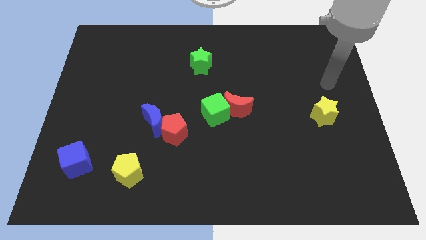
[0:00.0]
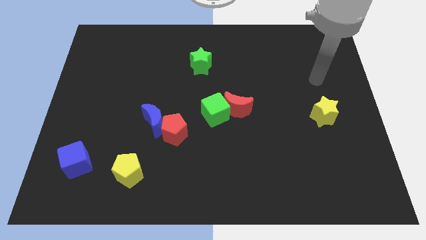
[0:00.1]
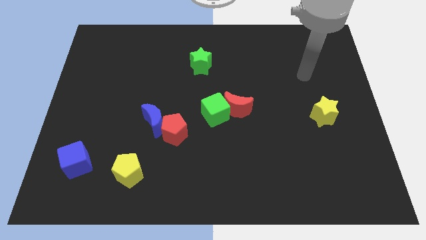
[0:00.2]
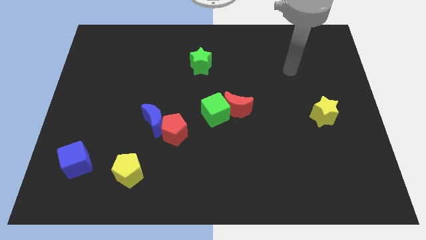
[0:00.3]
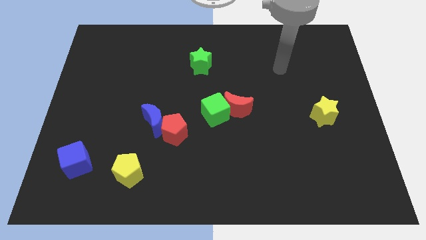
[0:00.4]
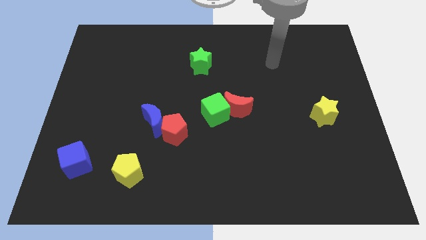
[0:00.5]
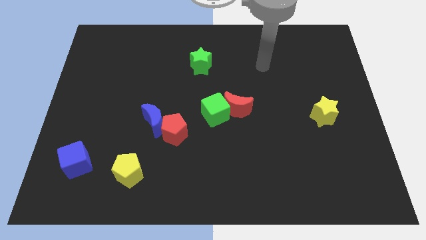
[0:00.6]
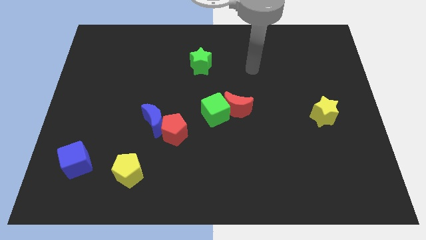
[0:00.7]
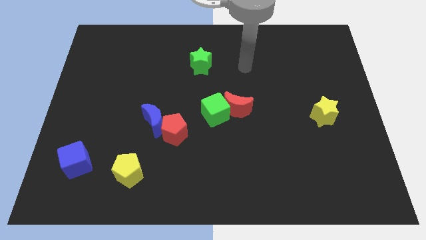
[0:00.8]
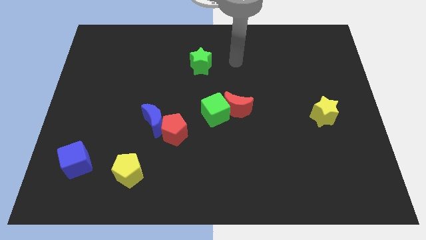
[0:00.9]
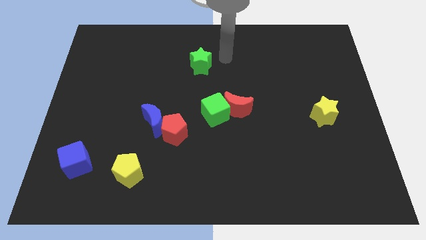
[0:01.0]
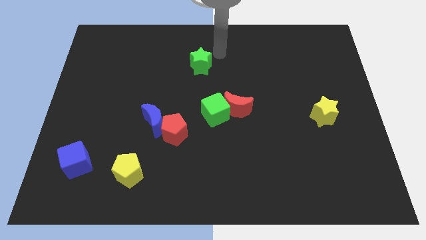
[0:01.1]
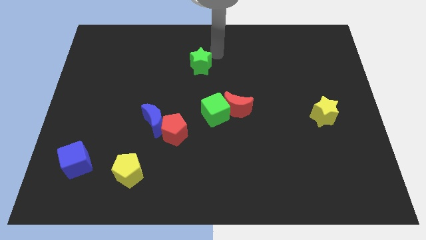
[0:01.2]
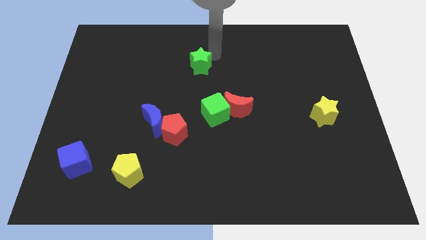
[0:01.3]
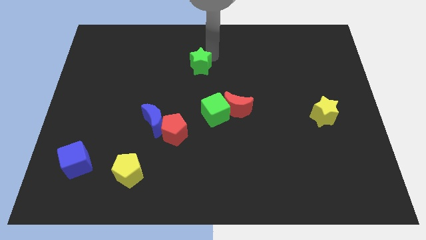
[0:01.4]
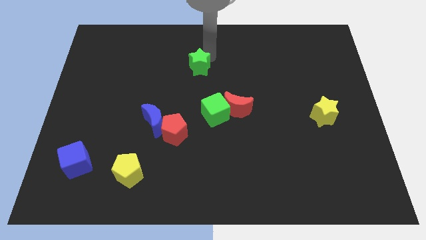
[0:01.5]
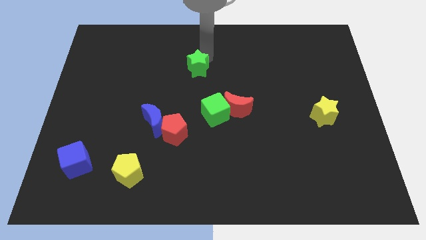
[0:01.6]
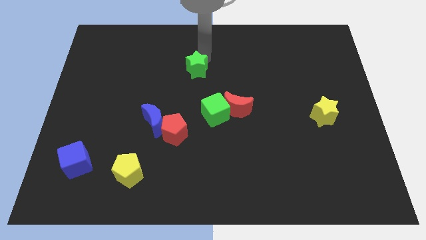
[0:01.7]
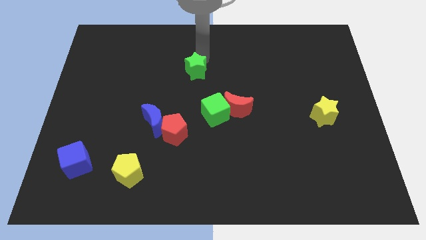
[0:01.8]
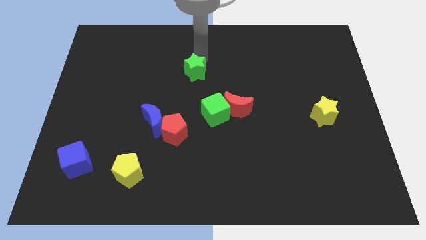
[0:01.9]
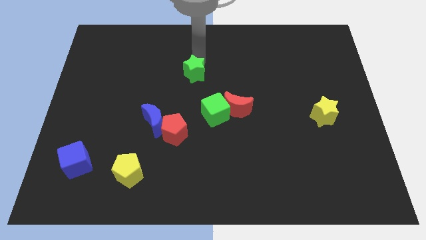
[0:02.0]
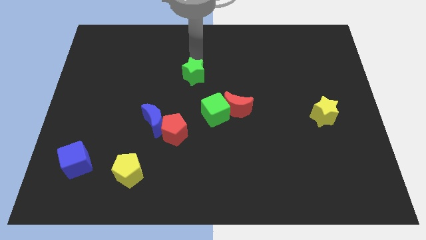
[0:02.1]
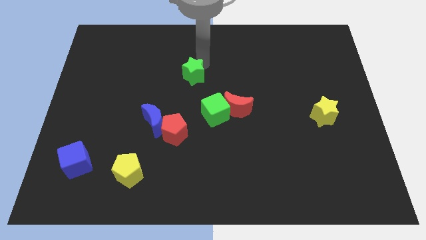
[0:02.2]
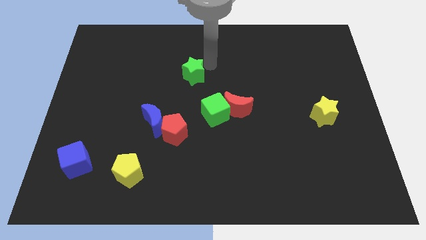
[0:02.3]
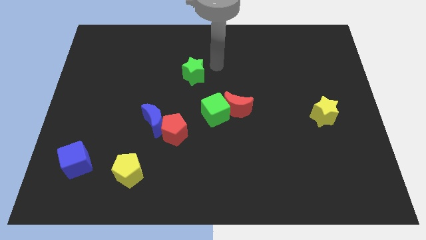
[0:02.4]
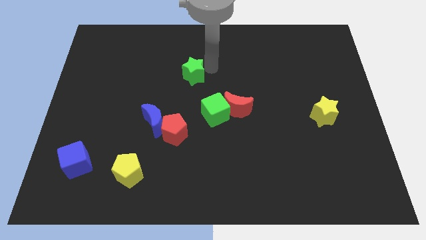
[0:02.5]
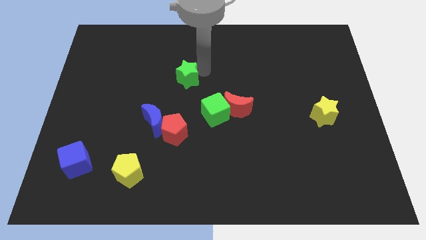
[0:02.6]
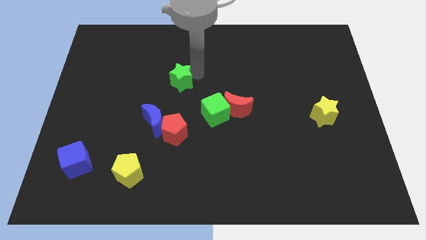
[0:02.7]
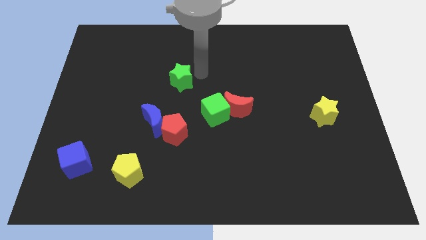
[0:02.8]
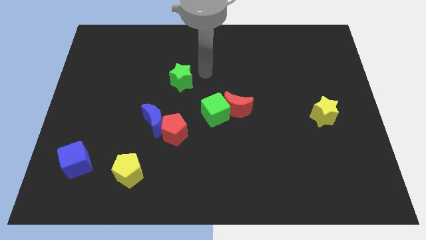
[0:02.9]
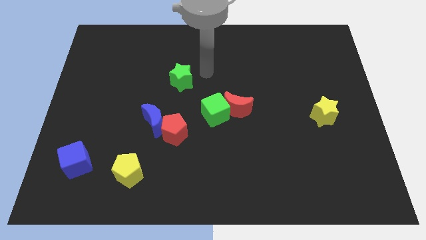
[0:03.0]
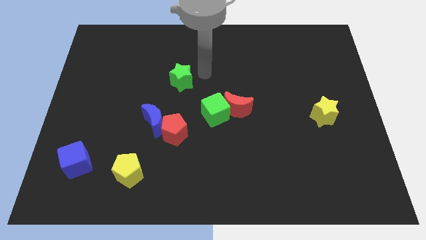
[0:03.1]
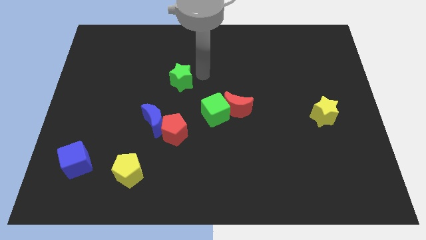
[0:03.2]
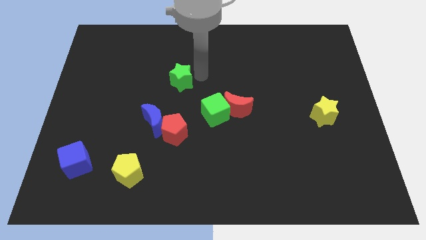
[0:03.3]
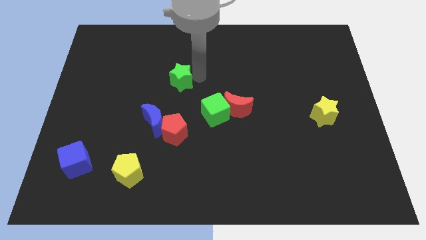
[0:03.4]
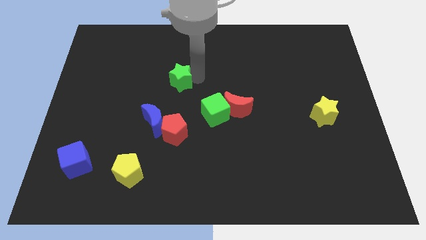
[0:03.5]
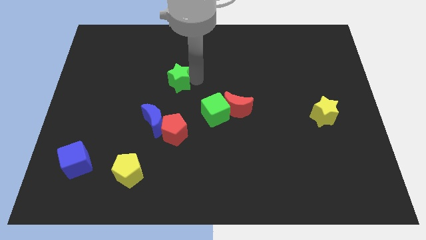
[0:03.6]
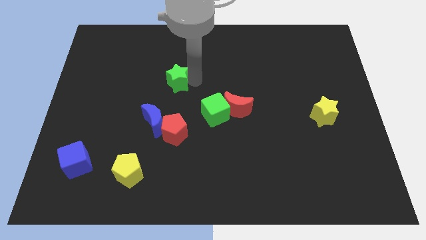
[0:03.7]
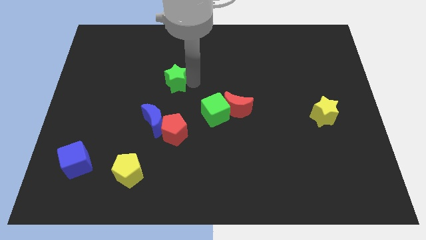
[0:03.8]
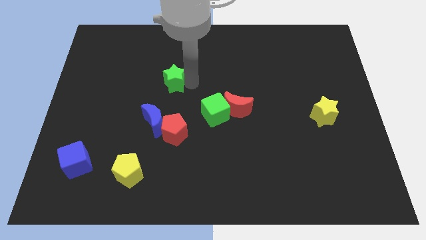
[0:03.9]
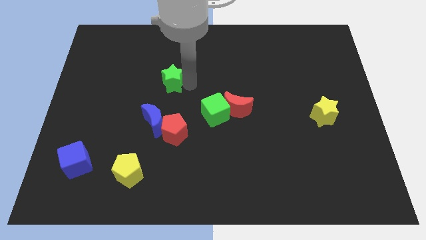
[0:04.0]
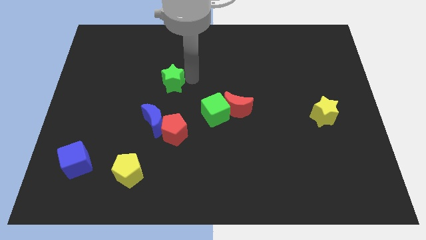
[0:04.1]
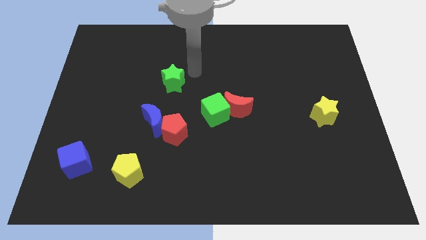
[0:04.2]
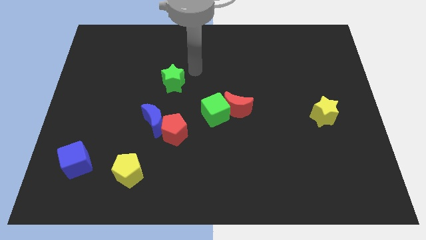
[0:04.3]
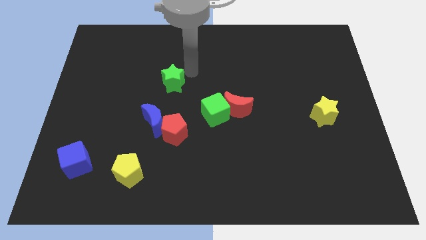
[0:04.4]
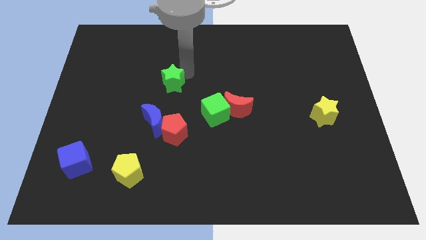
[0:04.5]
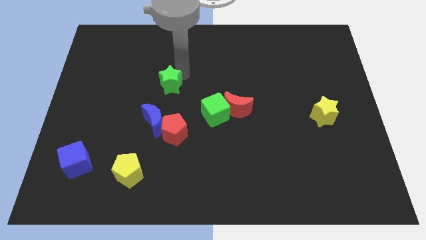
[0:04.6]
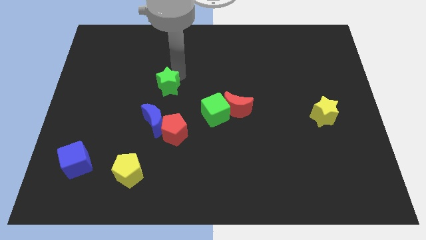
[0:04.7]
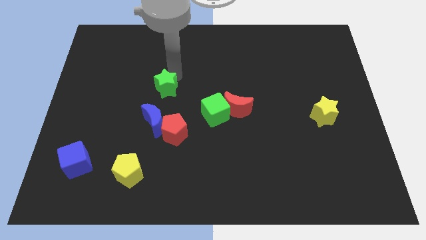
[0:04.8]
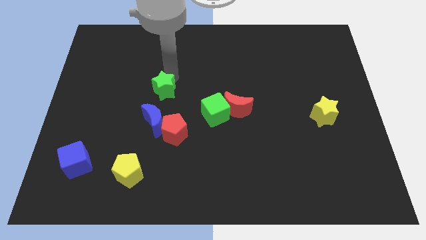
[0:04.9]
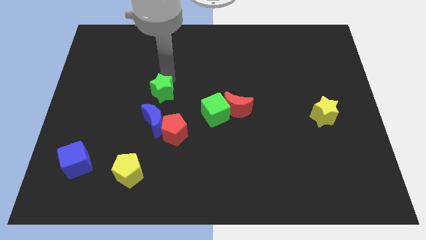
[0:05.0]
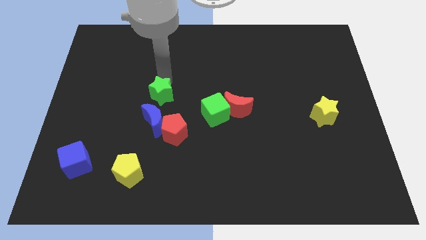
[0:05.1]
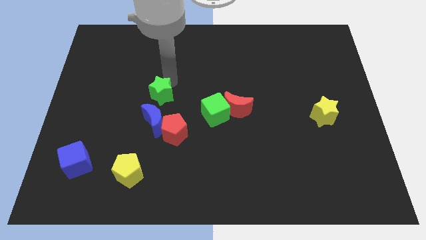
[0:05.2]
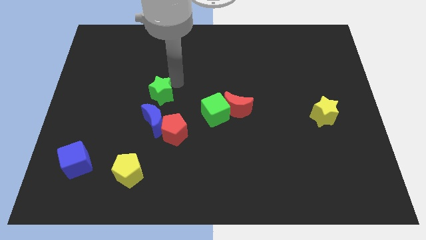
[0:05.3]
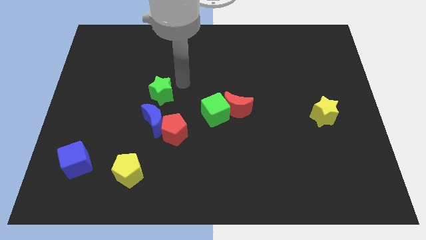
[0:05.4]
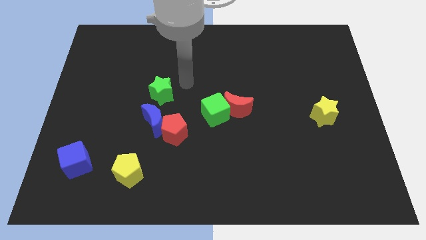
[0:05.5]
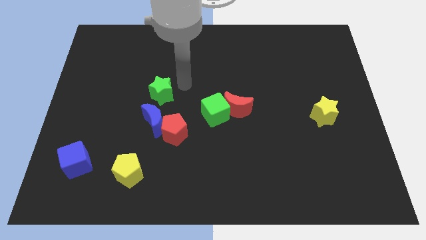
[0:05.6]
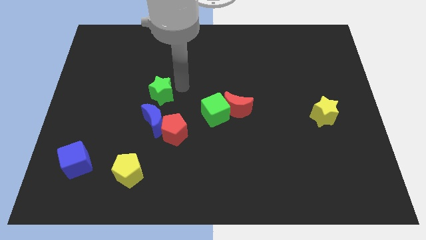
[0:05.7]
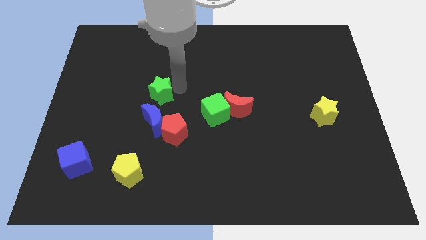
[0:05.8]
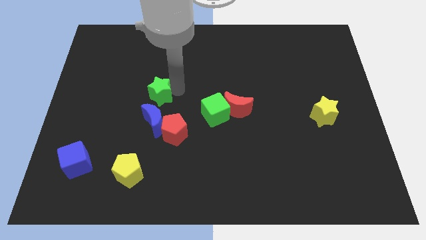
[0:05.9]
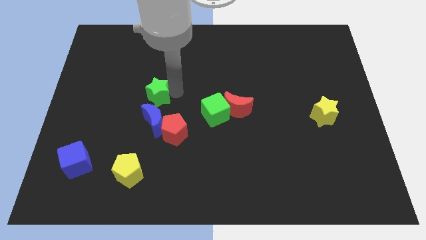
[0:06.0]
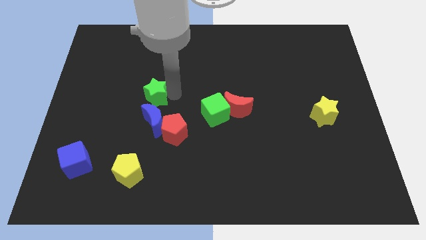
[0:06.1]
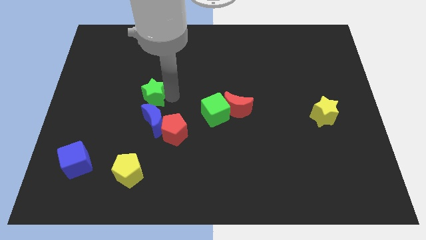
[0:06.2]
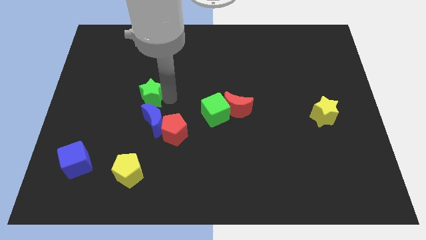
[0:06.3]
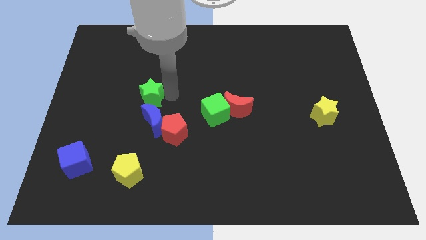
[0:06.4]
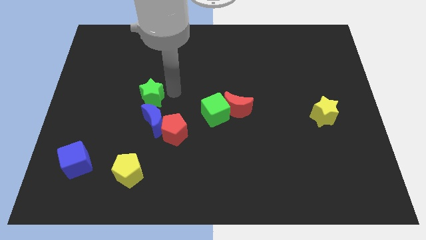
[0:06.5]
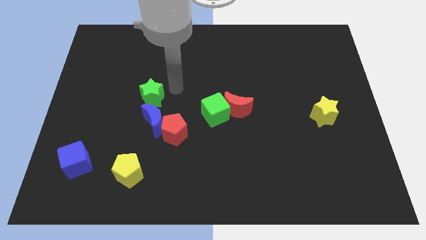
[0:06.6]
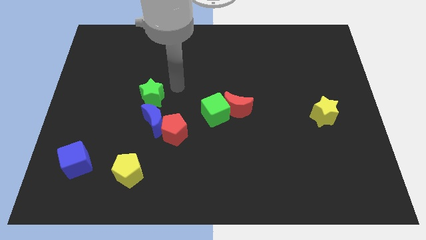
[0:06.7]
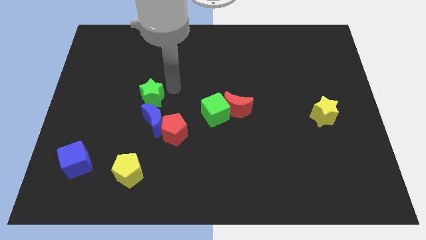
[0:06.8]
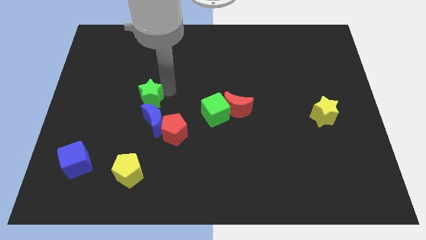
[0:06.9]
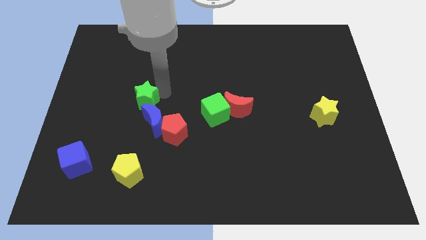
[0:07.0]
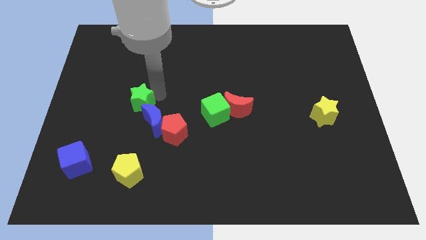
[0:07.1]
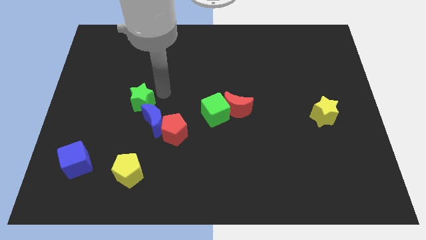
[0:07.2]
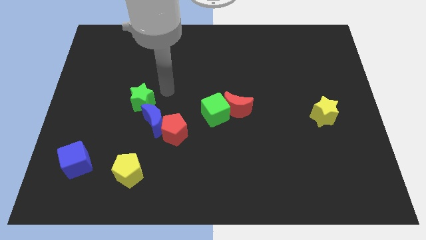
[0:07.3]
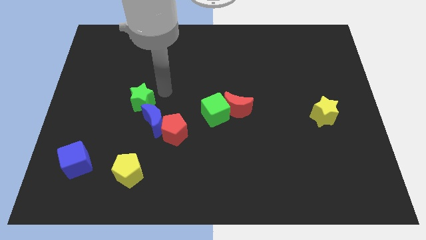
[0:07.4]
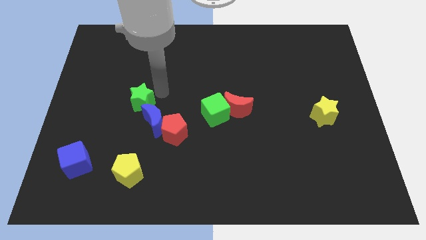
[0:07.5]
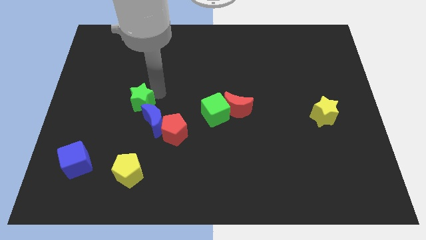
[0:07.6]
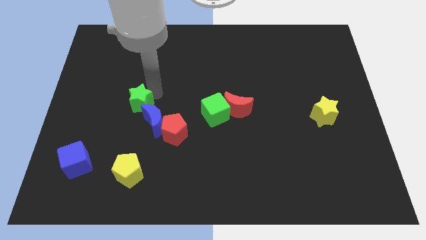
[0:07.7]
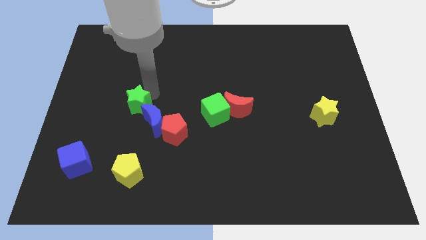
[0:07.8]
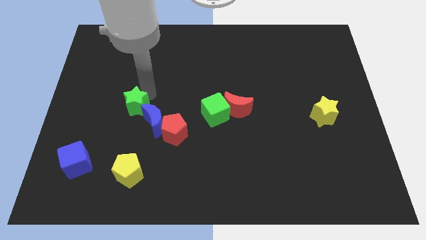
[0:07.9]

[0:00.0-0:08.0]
push the green star down and left
